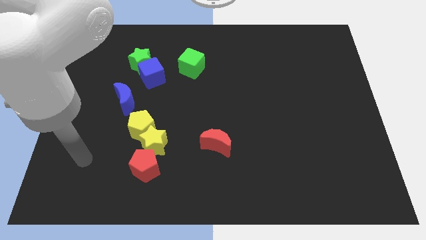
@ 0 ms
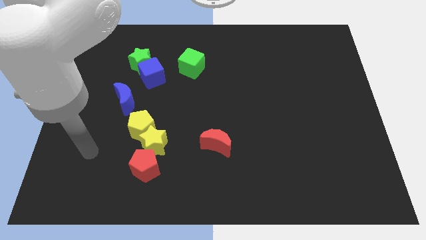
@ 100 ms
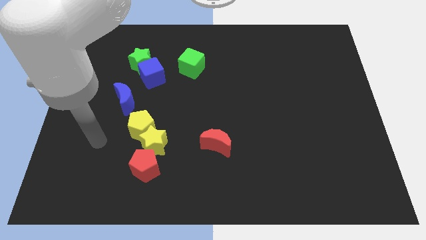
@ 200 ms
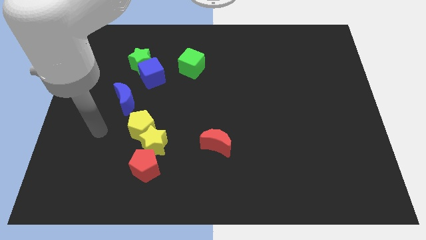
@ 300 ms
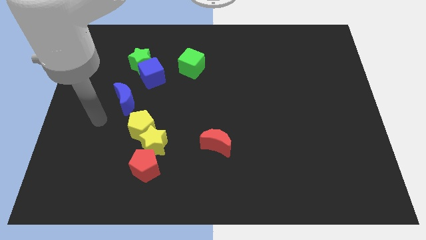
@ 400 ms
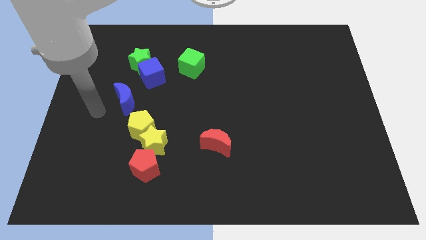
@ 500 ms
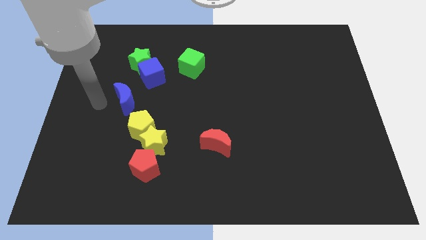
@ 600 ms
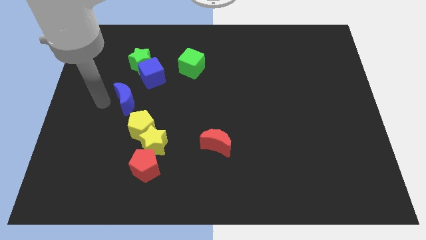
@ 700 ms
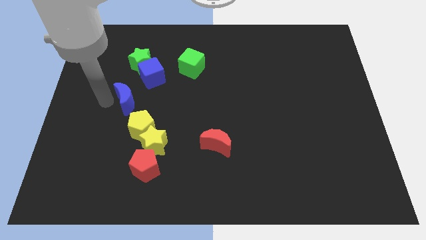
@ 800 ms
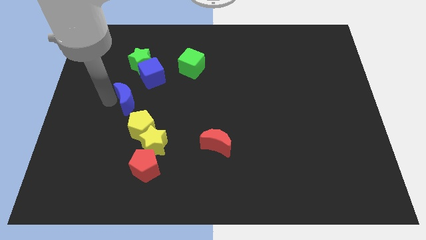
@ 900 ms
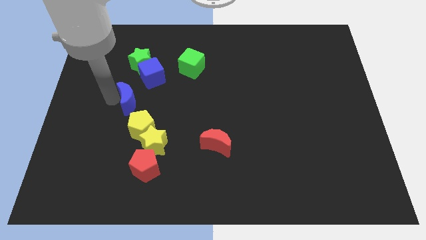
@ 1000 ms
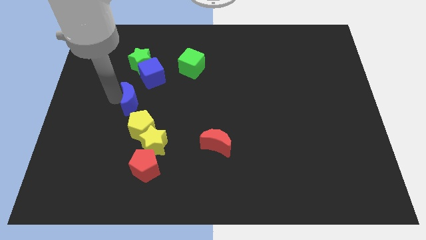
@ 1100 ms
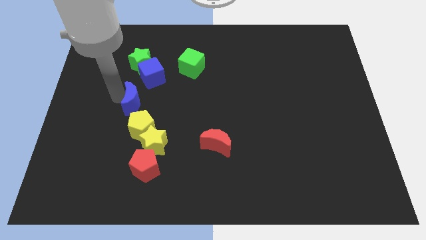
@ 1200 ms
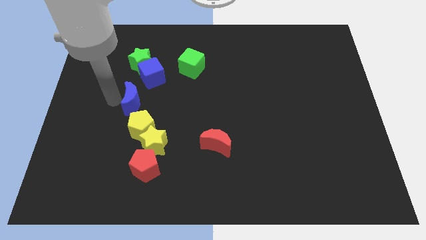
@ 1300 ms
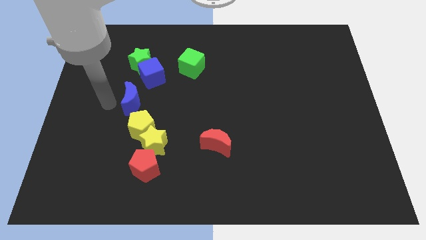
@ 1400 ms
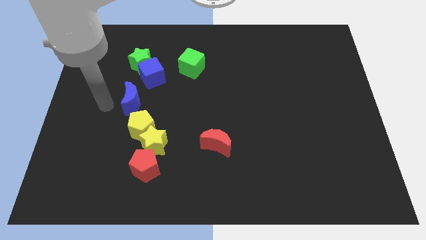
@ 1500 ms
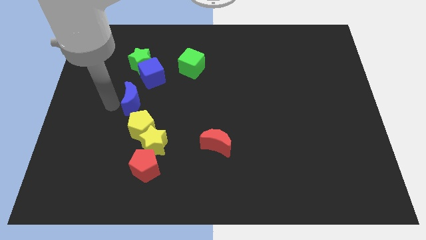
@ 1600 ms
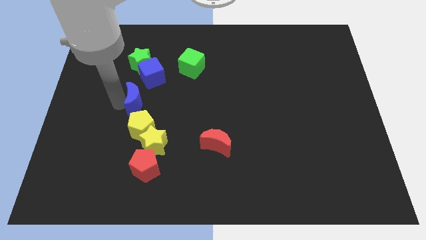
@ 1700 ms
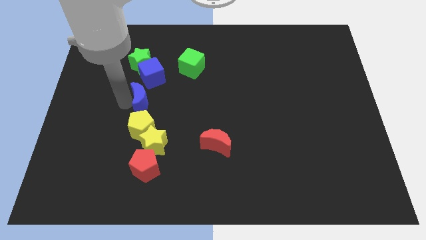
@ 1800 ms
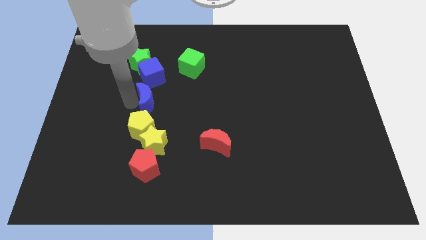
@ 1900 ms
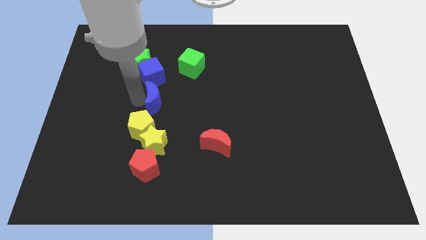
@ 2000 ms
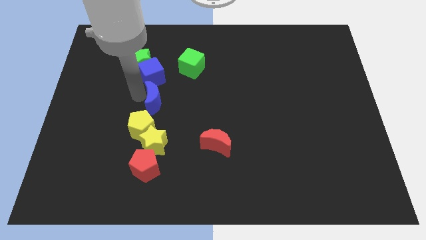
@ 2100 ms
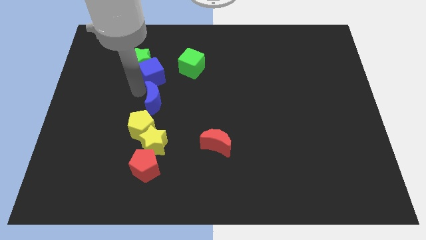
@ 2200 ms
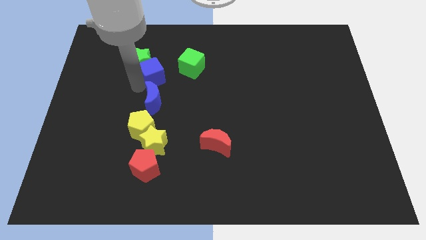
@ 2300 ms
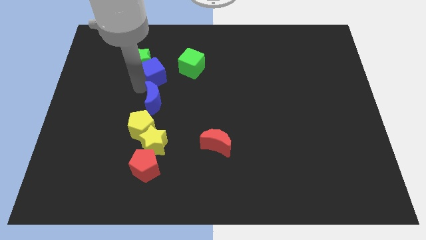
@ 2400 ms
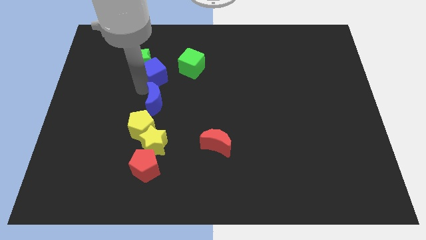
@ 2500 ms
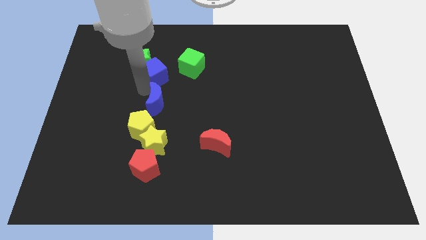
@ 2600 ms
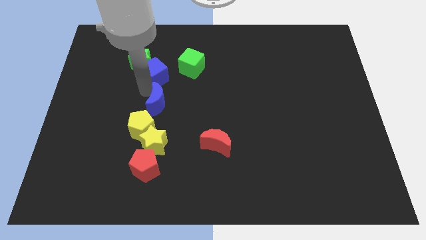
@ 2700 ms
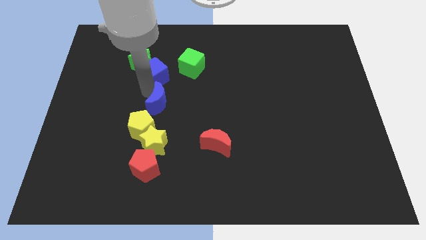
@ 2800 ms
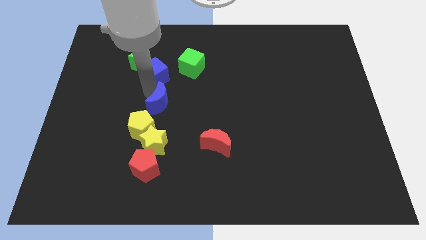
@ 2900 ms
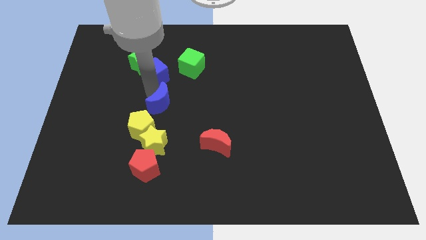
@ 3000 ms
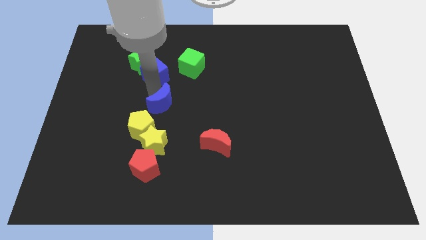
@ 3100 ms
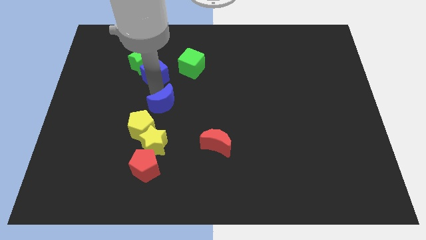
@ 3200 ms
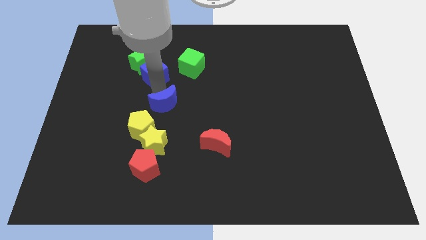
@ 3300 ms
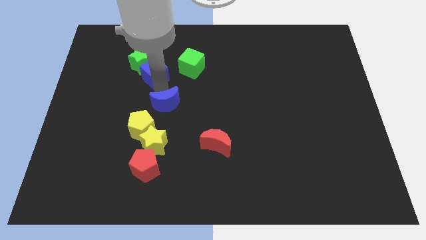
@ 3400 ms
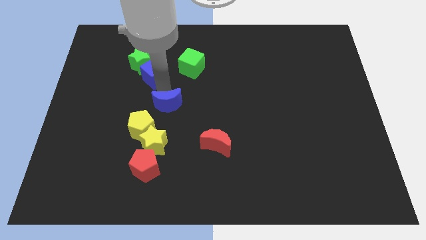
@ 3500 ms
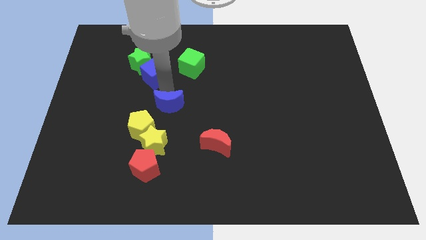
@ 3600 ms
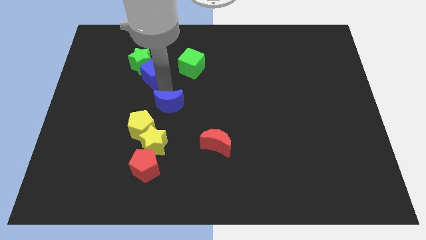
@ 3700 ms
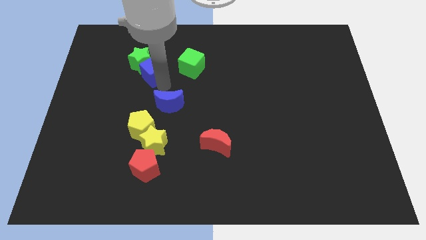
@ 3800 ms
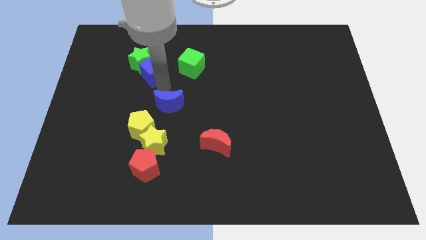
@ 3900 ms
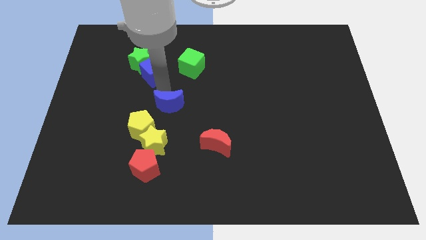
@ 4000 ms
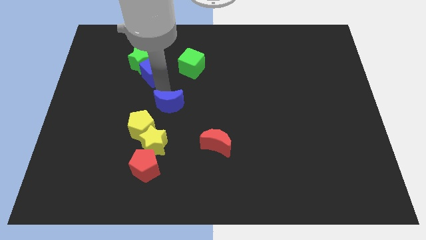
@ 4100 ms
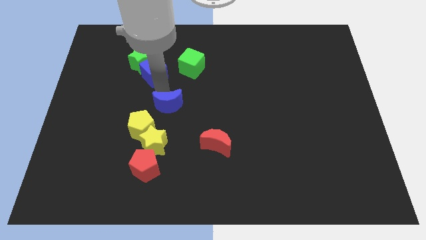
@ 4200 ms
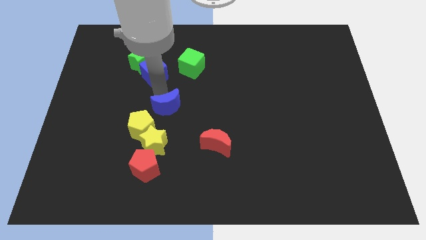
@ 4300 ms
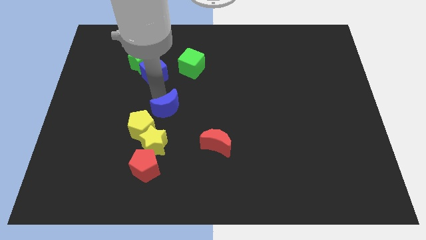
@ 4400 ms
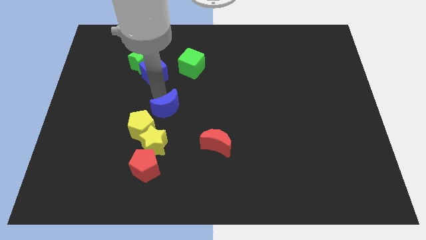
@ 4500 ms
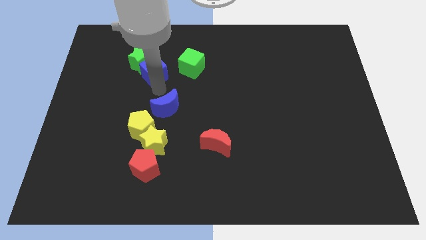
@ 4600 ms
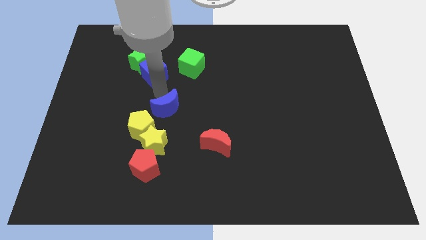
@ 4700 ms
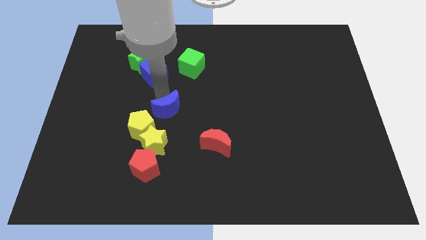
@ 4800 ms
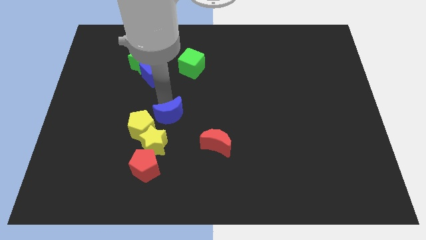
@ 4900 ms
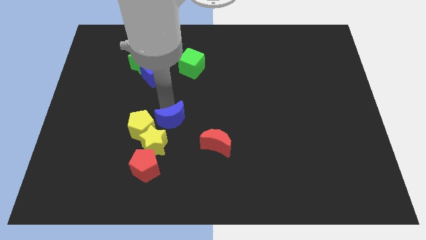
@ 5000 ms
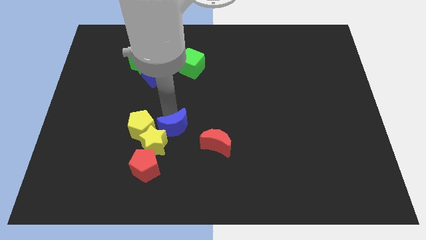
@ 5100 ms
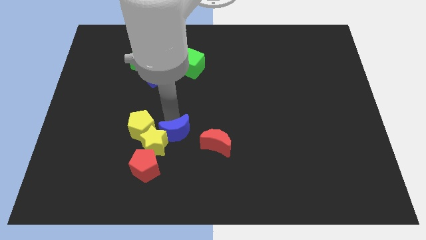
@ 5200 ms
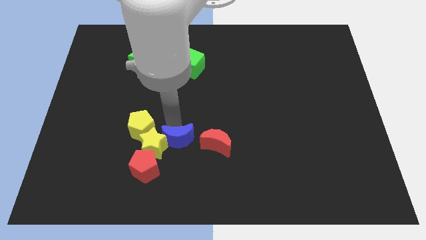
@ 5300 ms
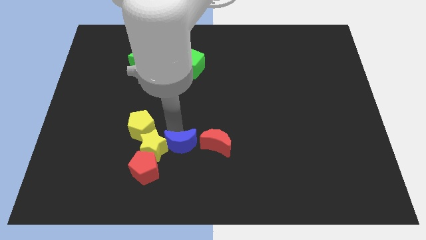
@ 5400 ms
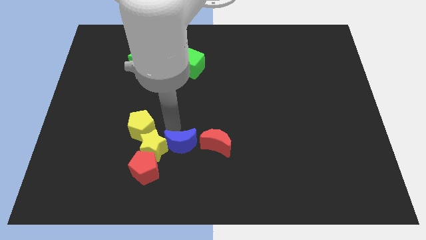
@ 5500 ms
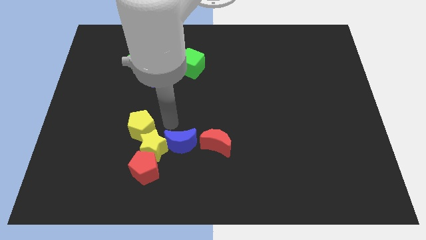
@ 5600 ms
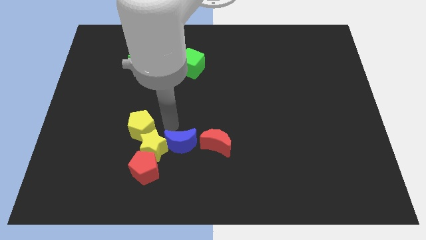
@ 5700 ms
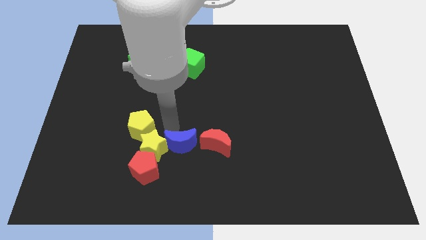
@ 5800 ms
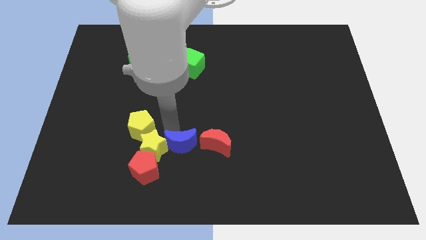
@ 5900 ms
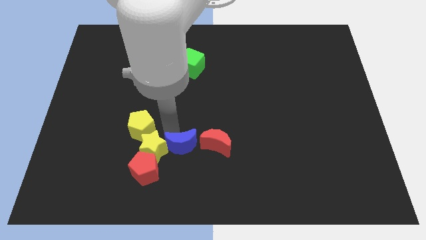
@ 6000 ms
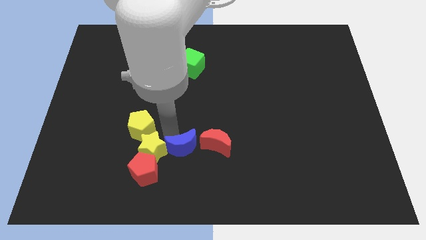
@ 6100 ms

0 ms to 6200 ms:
move the blue moon to the bottom left of the red moon

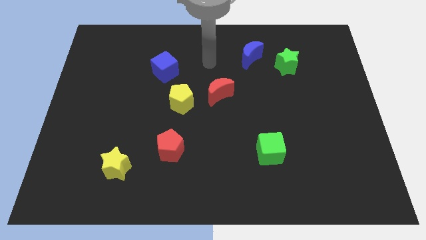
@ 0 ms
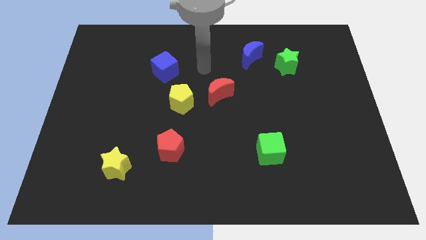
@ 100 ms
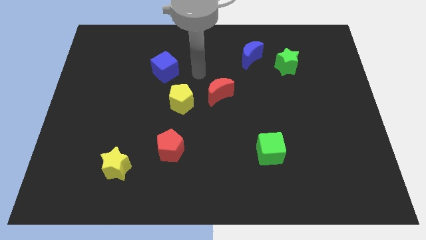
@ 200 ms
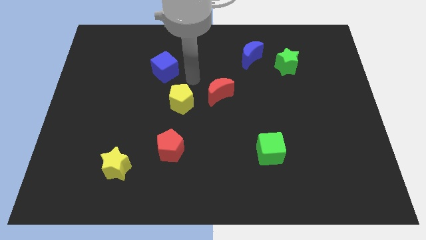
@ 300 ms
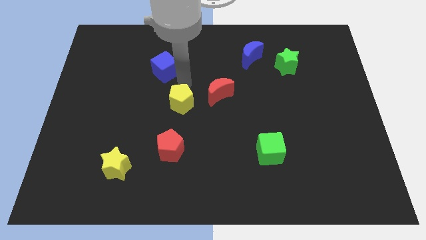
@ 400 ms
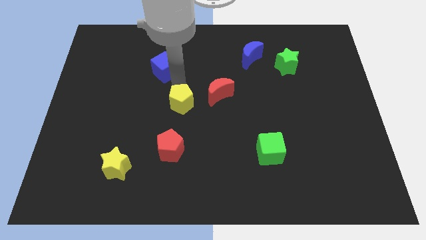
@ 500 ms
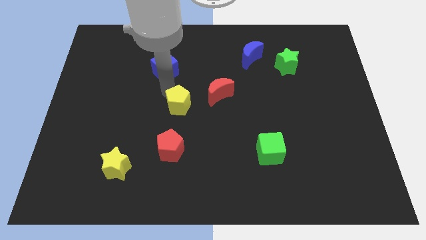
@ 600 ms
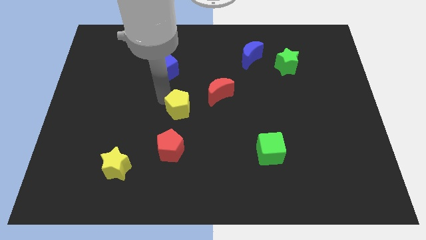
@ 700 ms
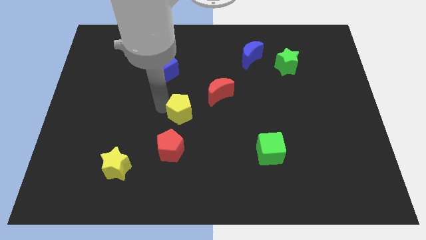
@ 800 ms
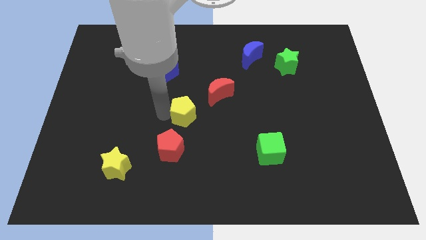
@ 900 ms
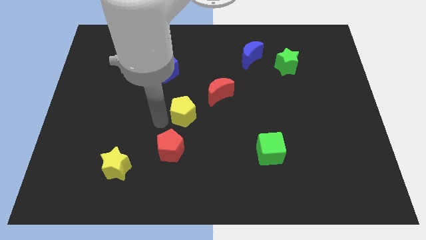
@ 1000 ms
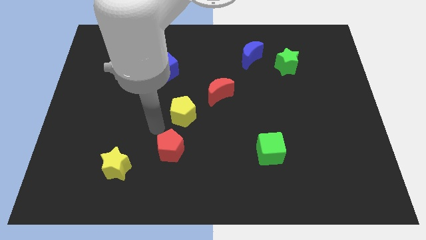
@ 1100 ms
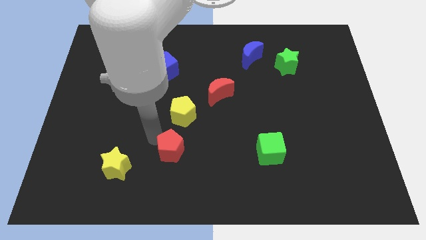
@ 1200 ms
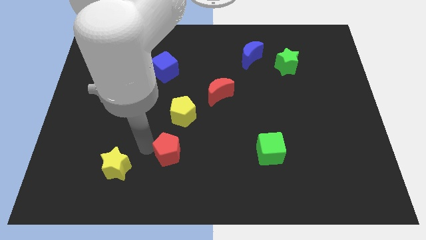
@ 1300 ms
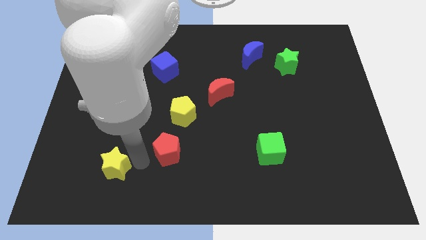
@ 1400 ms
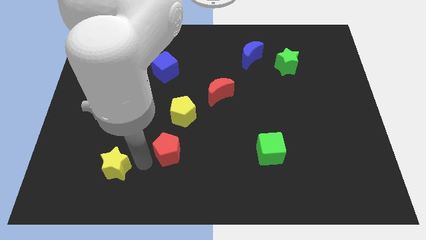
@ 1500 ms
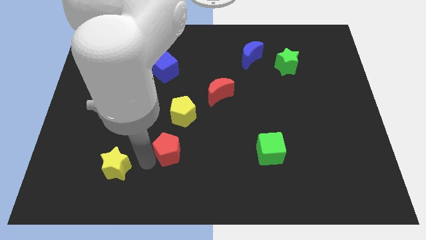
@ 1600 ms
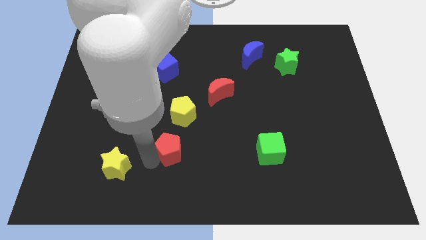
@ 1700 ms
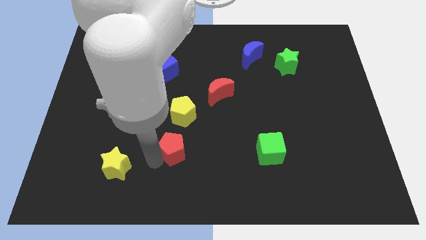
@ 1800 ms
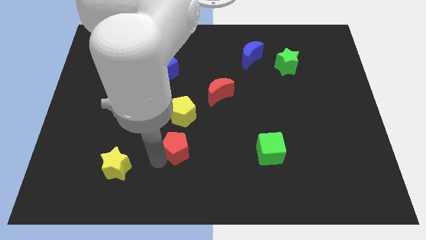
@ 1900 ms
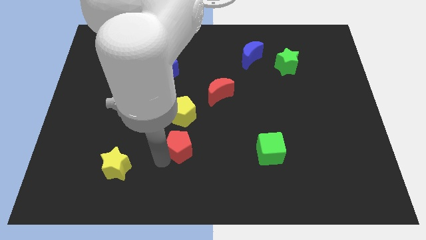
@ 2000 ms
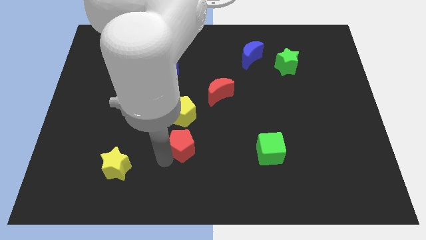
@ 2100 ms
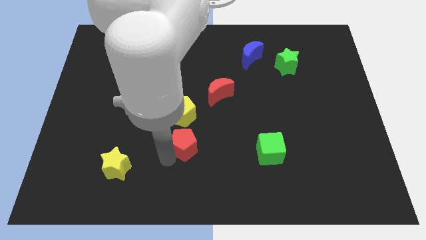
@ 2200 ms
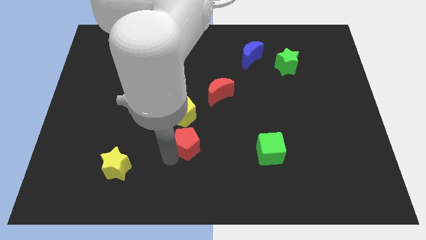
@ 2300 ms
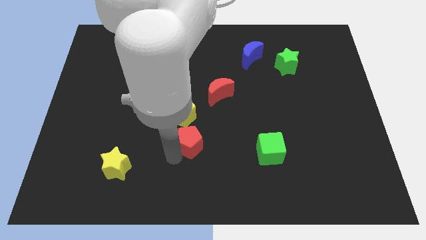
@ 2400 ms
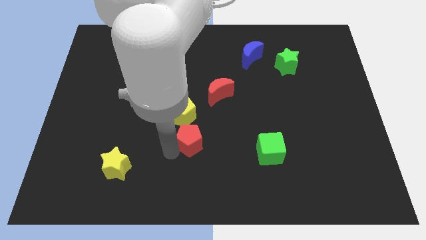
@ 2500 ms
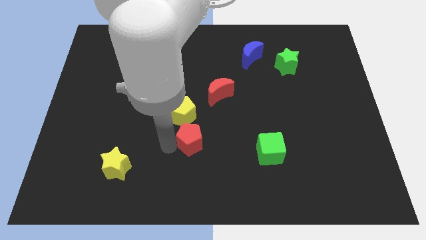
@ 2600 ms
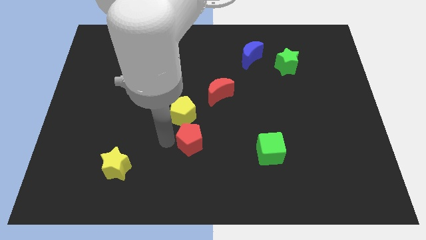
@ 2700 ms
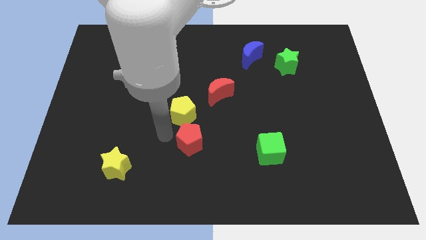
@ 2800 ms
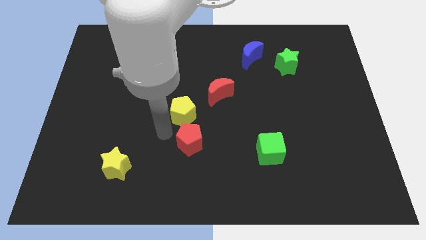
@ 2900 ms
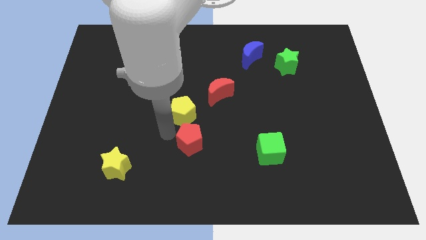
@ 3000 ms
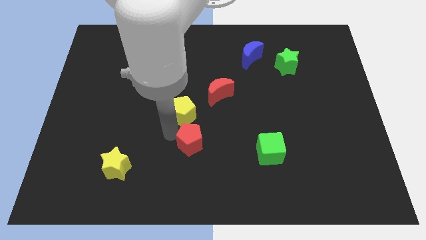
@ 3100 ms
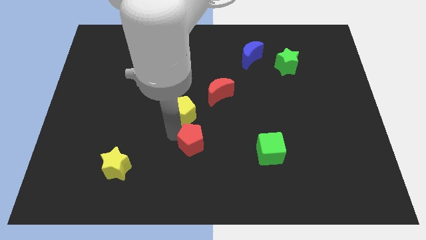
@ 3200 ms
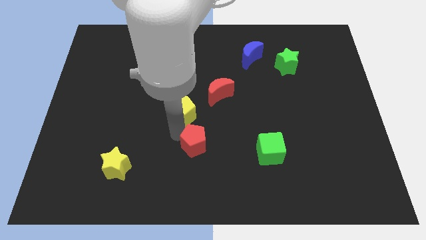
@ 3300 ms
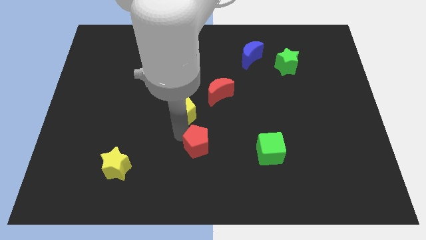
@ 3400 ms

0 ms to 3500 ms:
push the red pentagon just left of the green cube
